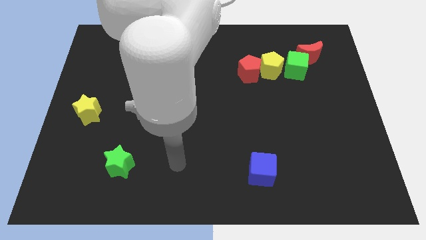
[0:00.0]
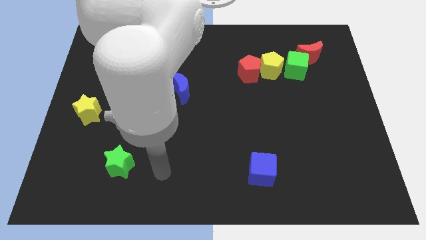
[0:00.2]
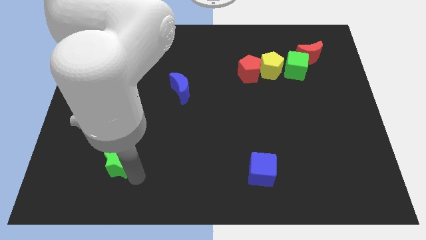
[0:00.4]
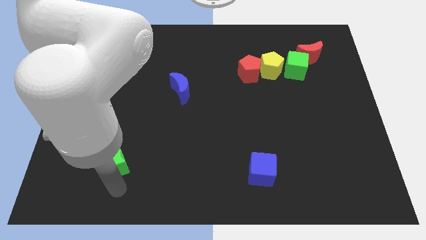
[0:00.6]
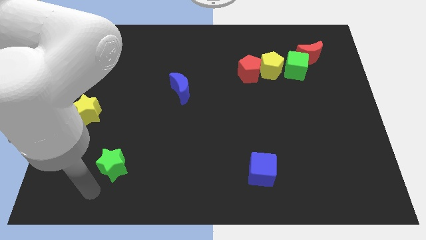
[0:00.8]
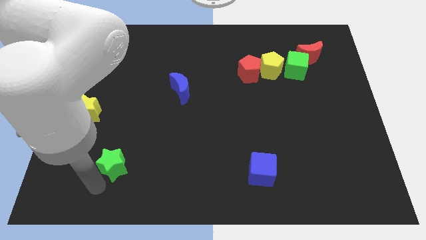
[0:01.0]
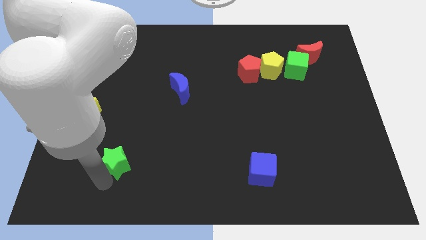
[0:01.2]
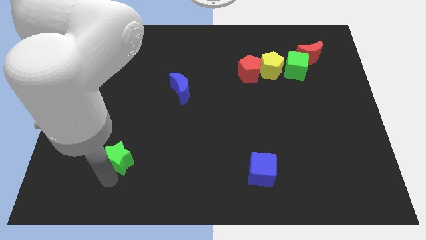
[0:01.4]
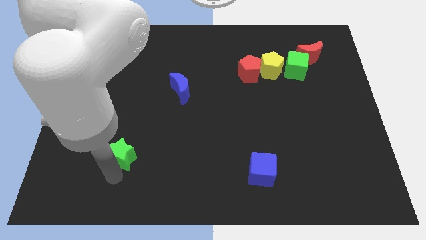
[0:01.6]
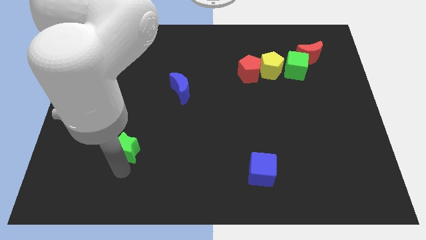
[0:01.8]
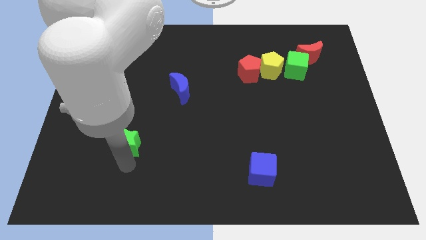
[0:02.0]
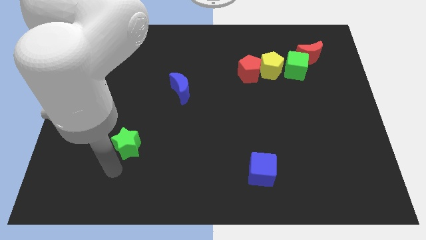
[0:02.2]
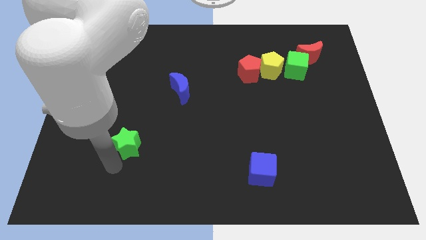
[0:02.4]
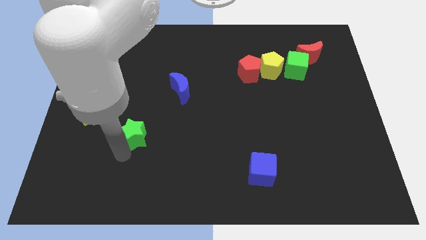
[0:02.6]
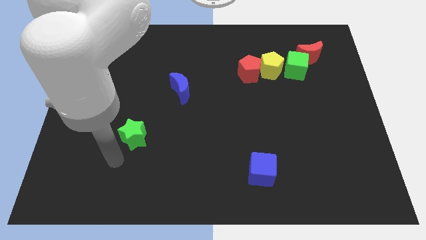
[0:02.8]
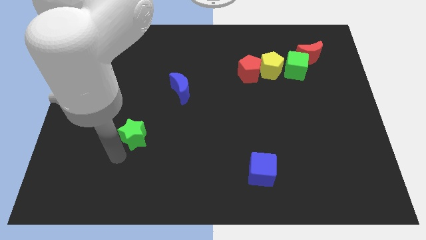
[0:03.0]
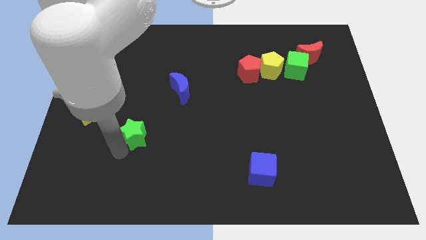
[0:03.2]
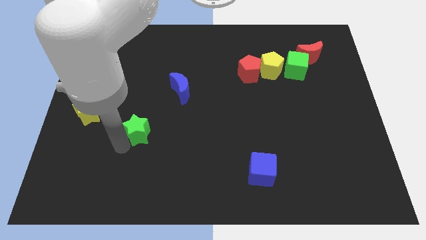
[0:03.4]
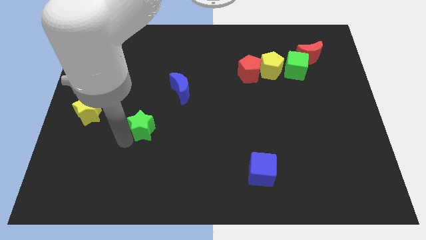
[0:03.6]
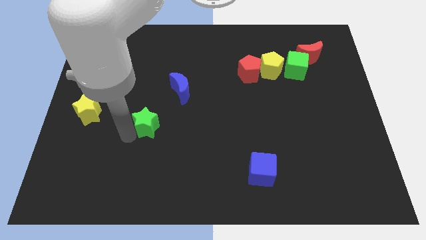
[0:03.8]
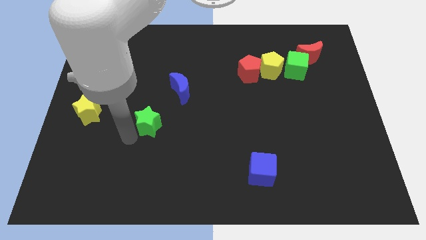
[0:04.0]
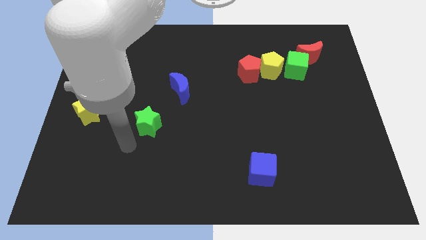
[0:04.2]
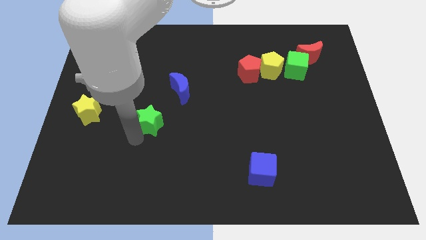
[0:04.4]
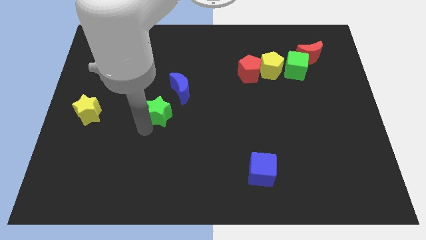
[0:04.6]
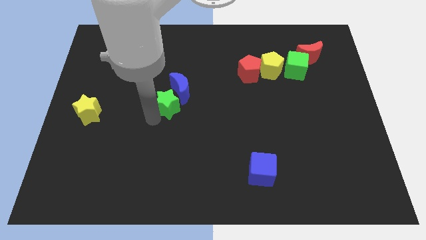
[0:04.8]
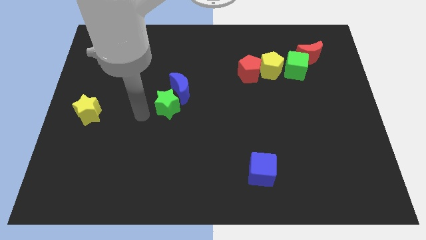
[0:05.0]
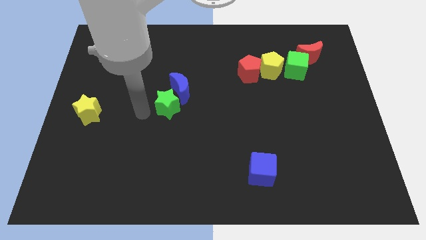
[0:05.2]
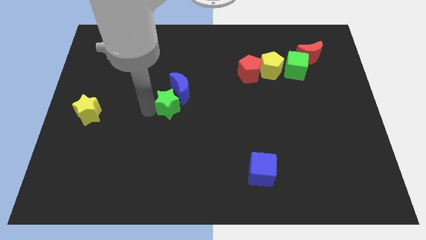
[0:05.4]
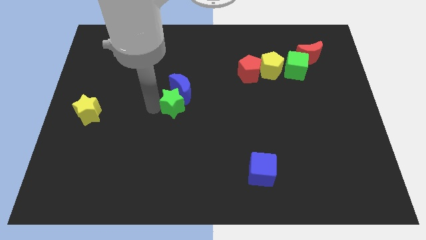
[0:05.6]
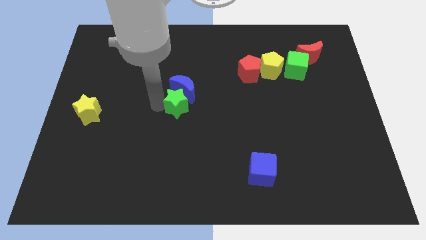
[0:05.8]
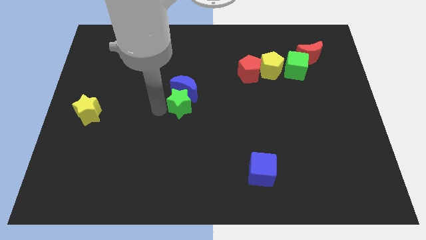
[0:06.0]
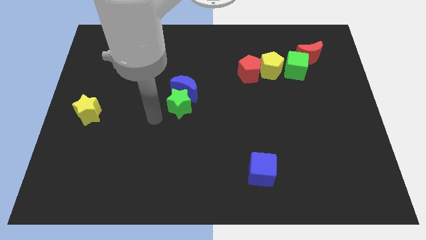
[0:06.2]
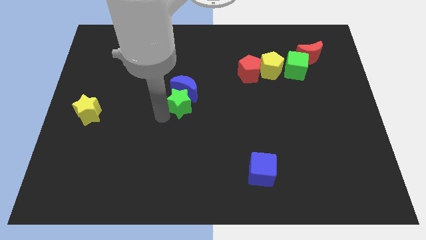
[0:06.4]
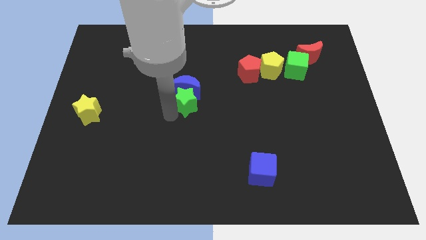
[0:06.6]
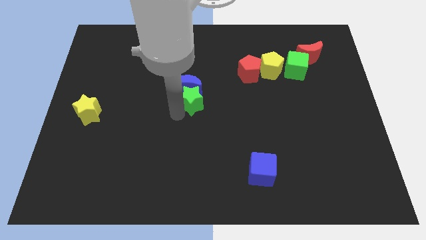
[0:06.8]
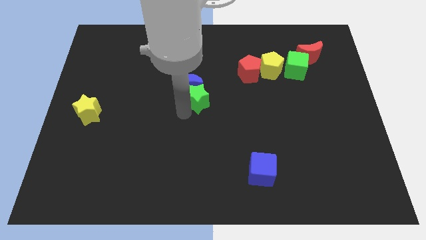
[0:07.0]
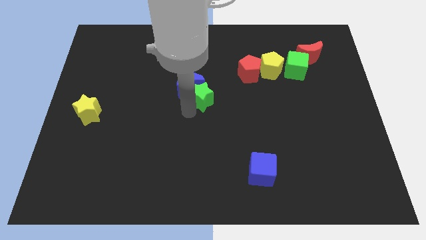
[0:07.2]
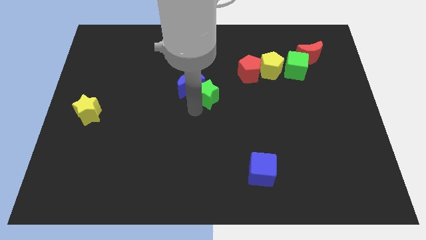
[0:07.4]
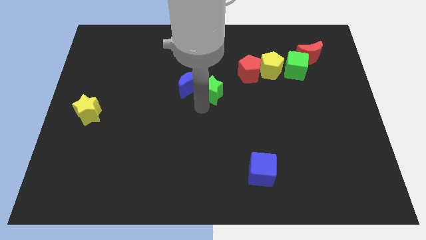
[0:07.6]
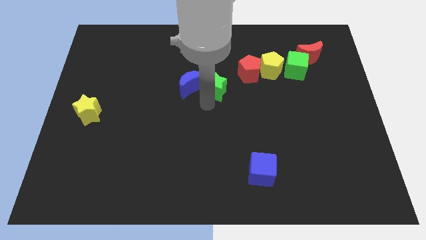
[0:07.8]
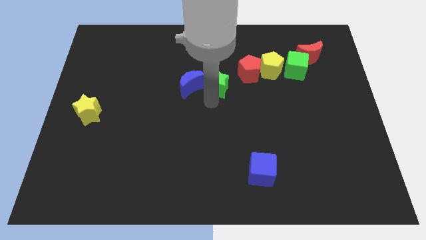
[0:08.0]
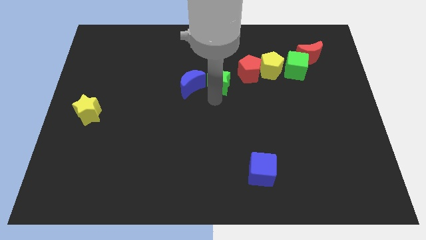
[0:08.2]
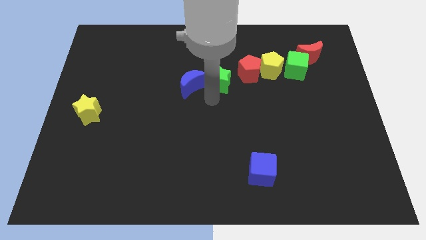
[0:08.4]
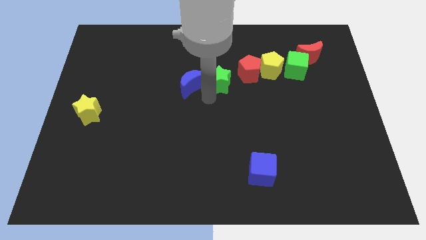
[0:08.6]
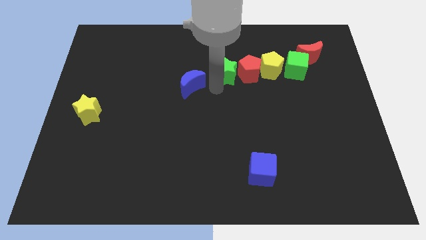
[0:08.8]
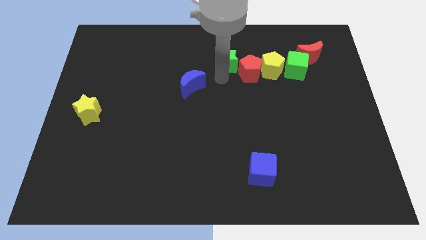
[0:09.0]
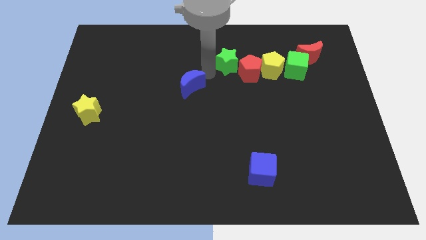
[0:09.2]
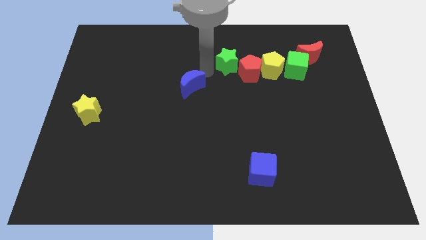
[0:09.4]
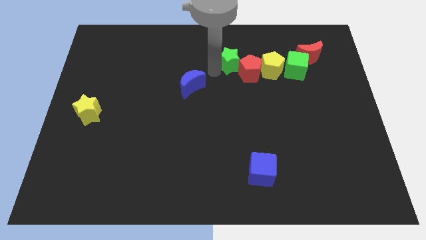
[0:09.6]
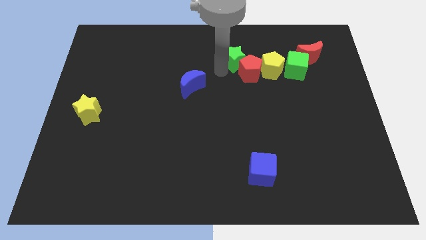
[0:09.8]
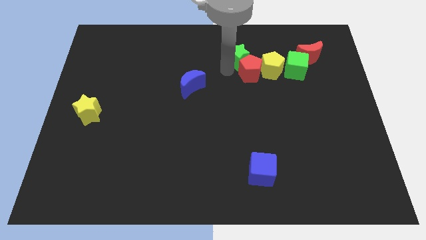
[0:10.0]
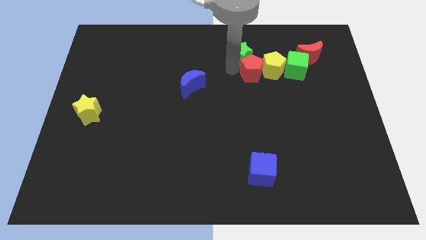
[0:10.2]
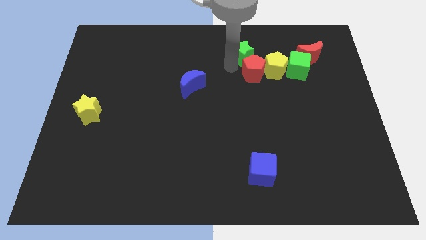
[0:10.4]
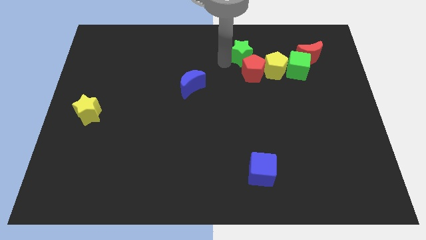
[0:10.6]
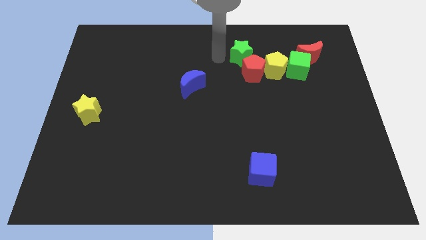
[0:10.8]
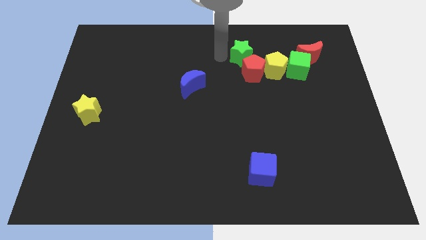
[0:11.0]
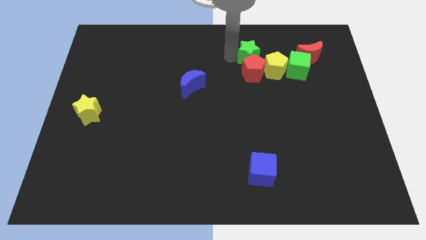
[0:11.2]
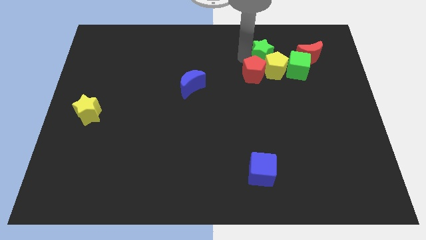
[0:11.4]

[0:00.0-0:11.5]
move the green star diagonally up and to the left of the green cube

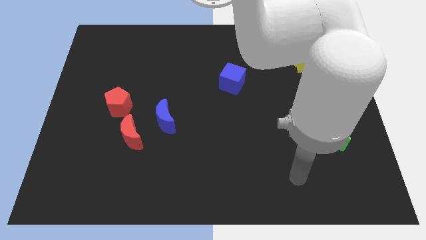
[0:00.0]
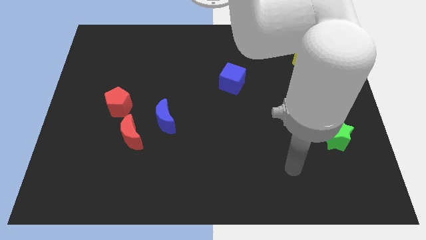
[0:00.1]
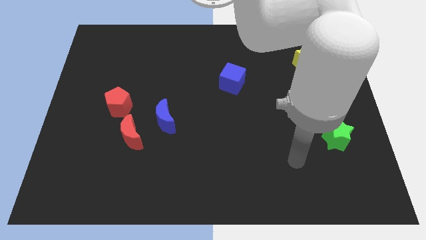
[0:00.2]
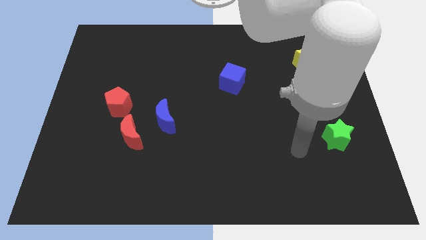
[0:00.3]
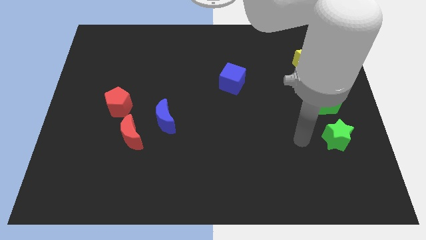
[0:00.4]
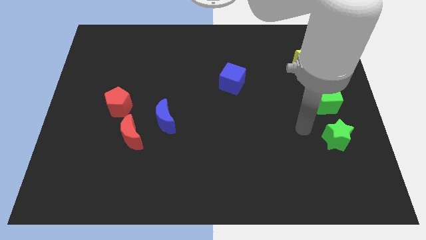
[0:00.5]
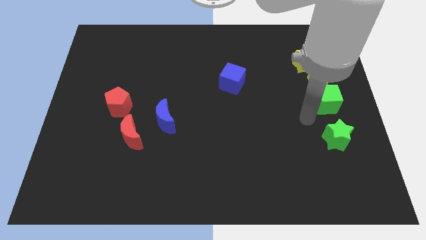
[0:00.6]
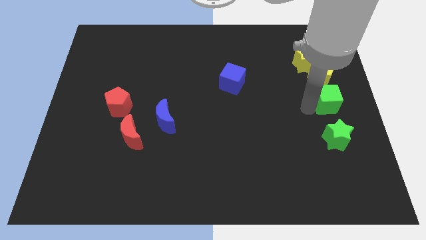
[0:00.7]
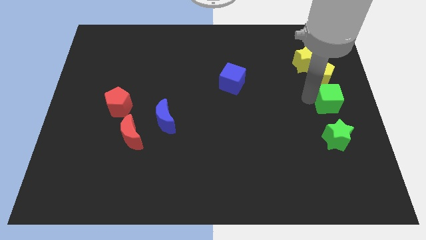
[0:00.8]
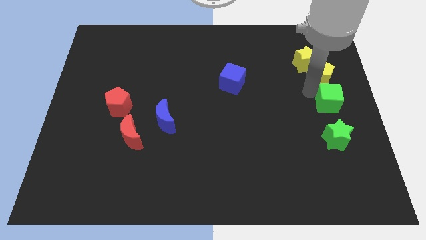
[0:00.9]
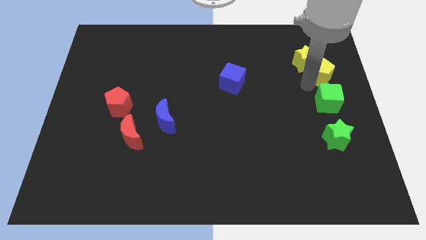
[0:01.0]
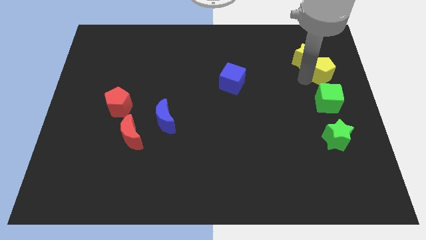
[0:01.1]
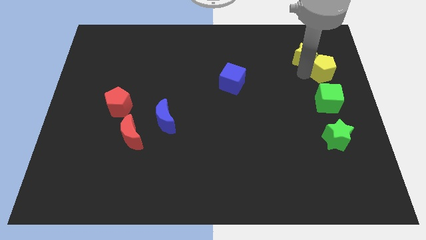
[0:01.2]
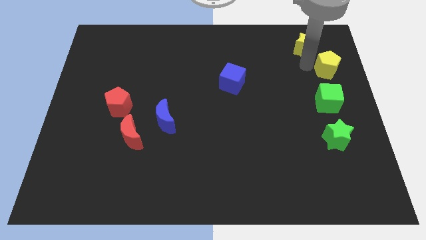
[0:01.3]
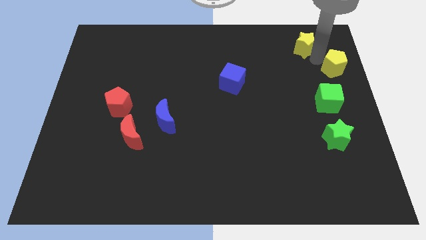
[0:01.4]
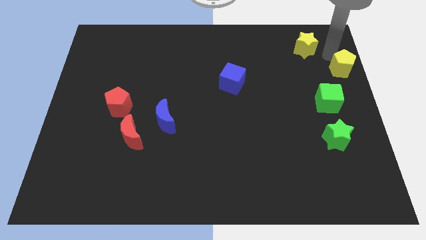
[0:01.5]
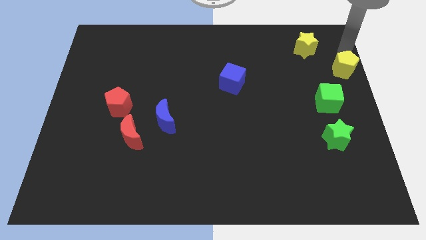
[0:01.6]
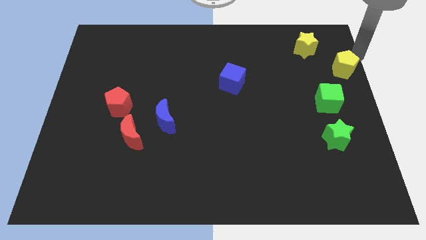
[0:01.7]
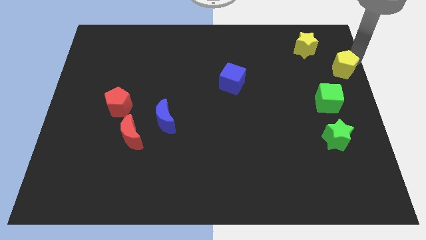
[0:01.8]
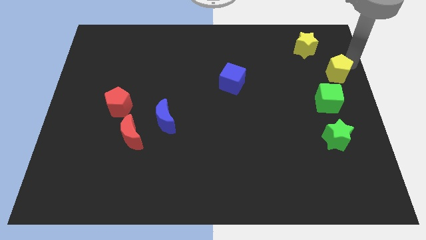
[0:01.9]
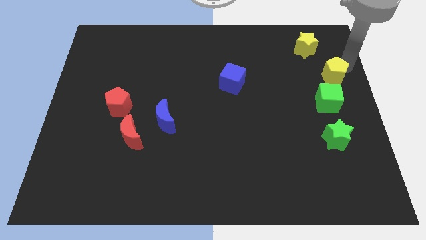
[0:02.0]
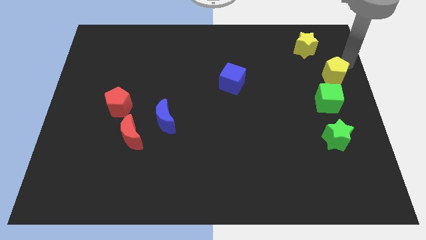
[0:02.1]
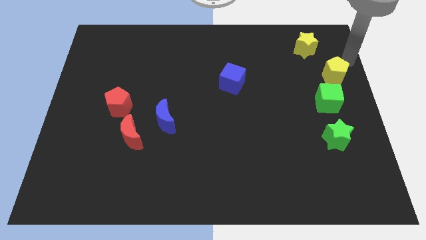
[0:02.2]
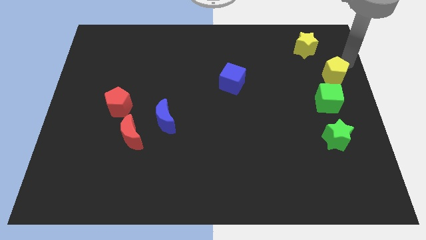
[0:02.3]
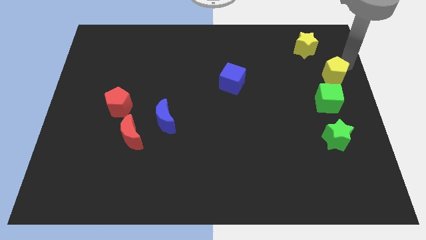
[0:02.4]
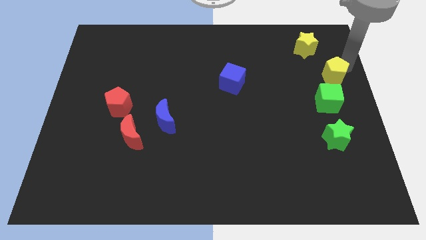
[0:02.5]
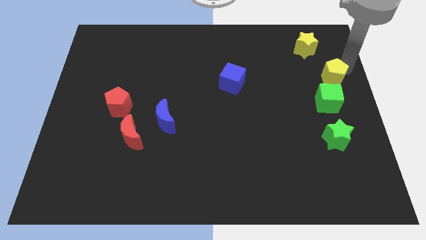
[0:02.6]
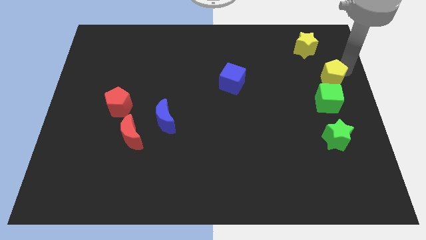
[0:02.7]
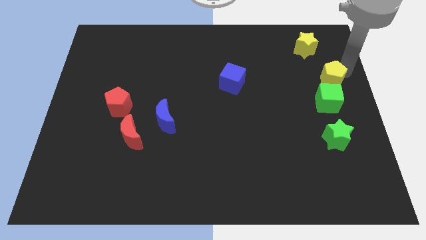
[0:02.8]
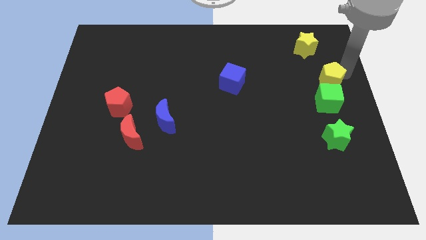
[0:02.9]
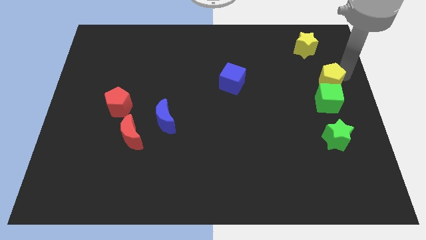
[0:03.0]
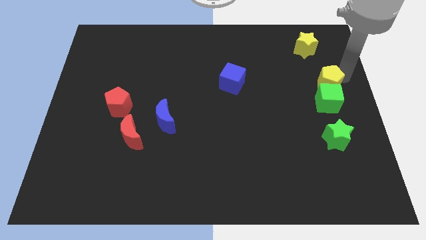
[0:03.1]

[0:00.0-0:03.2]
put the yellow pentagon above the green star
